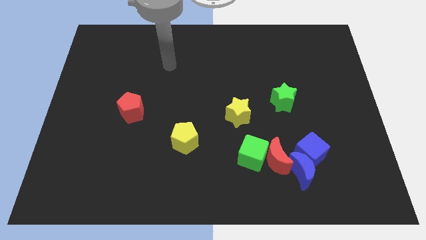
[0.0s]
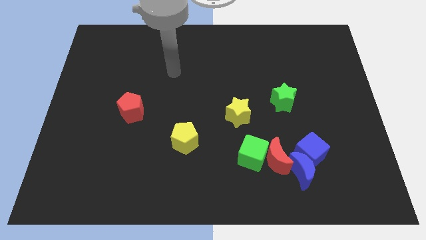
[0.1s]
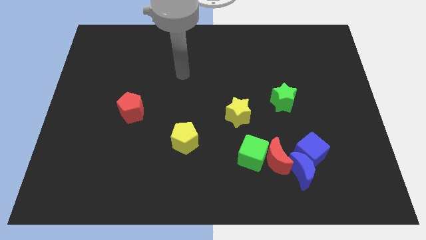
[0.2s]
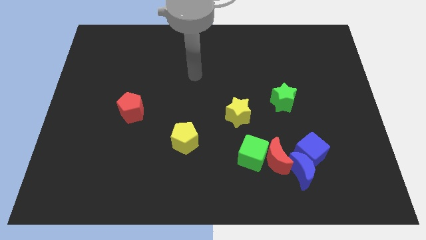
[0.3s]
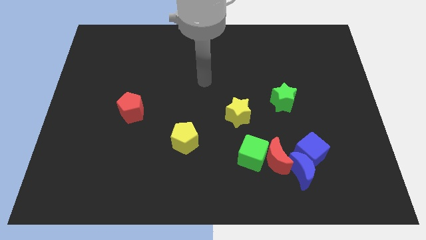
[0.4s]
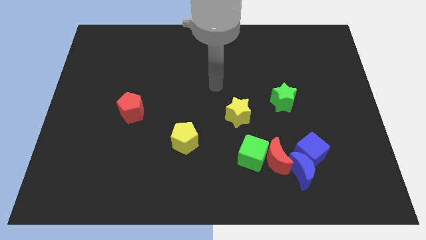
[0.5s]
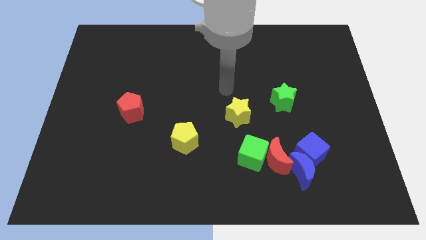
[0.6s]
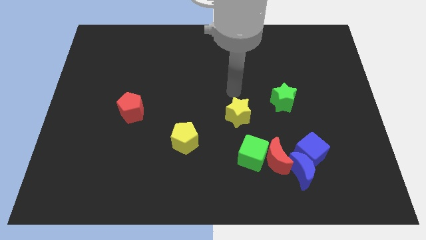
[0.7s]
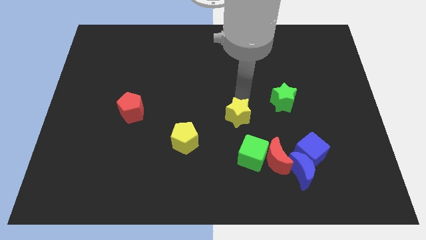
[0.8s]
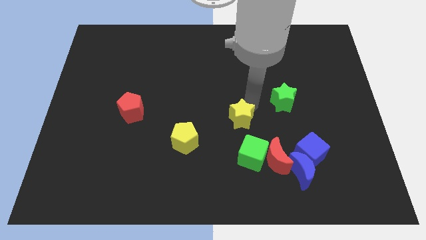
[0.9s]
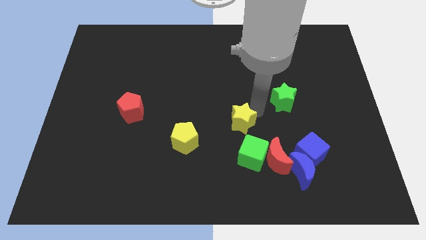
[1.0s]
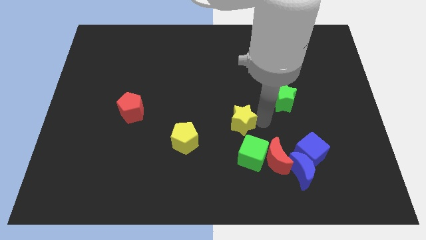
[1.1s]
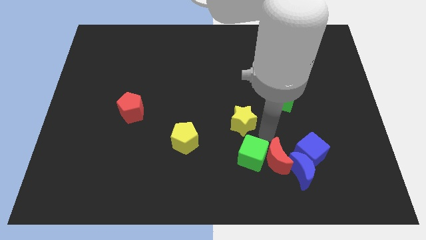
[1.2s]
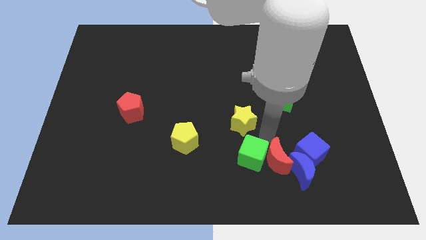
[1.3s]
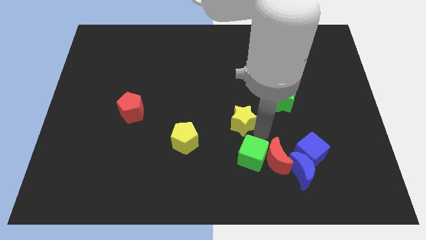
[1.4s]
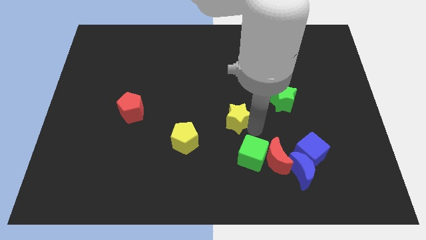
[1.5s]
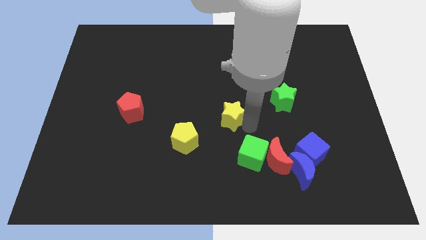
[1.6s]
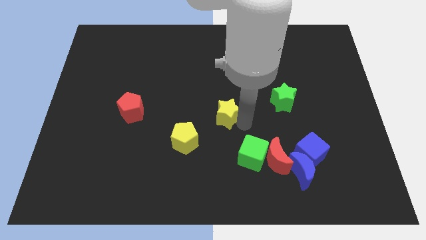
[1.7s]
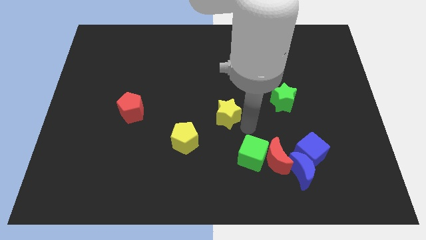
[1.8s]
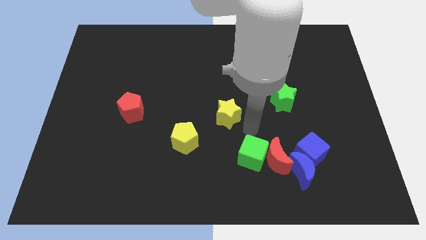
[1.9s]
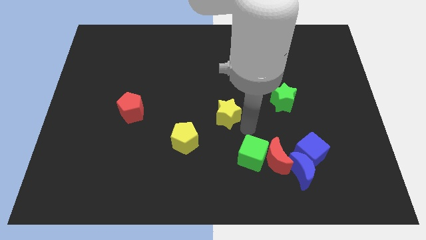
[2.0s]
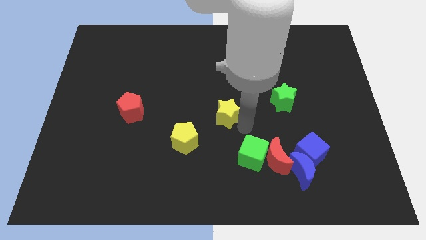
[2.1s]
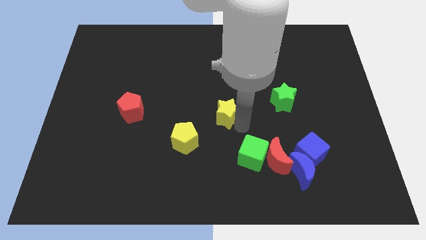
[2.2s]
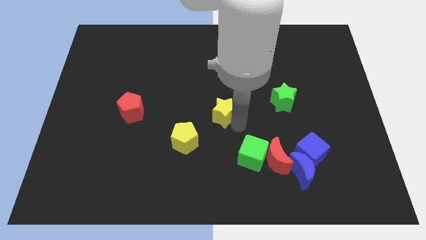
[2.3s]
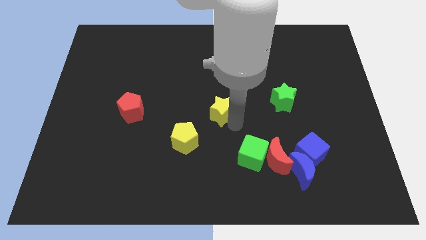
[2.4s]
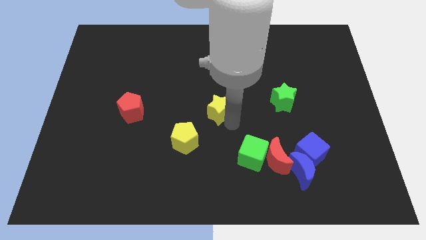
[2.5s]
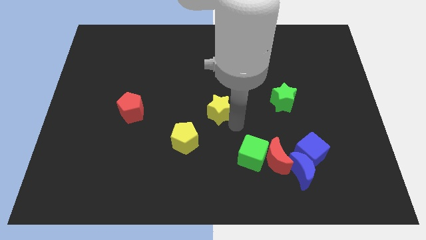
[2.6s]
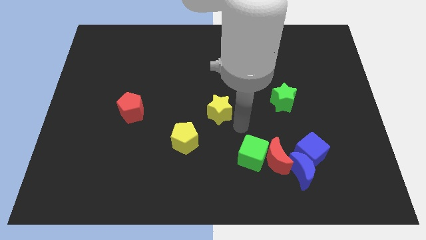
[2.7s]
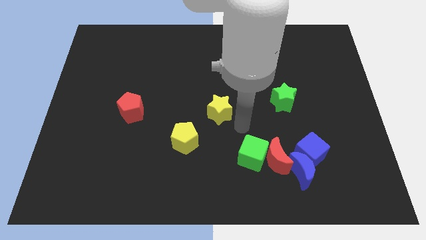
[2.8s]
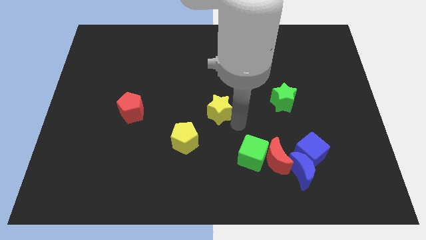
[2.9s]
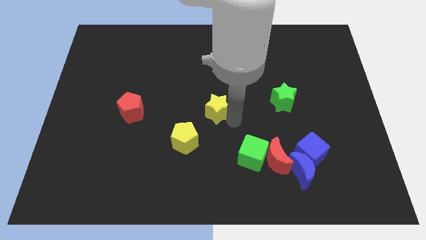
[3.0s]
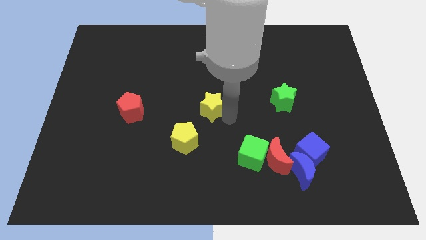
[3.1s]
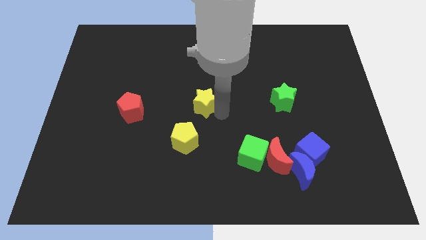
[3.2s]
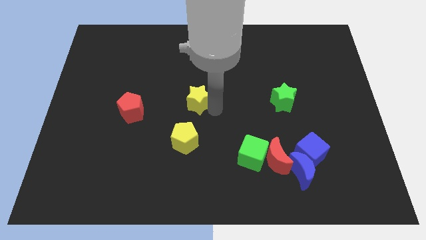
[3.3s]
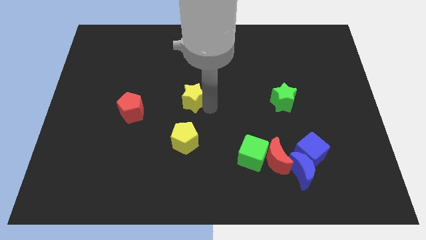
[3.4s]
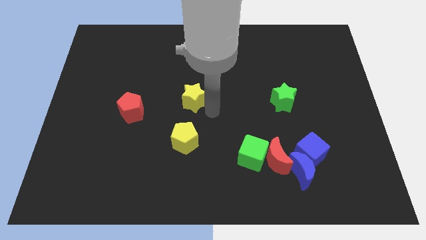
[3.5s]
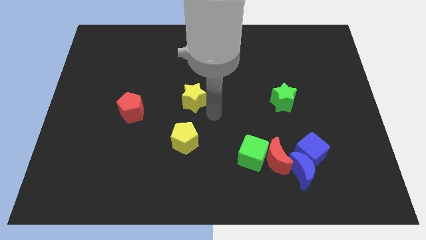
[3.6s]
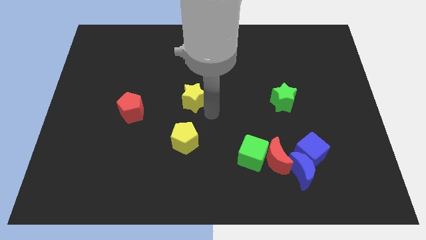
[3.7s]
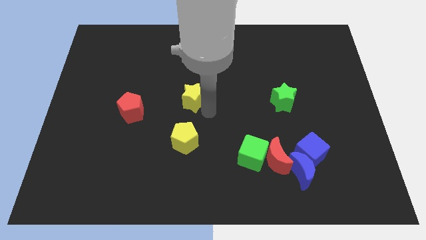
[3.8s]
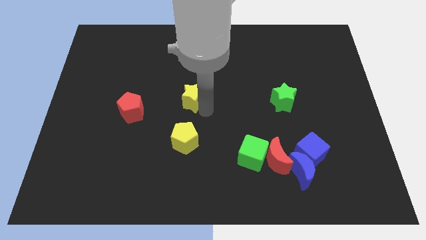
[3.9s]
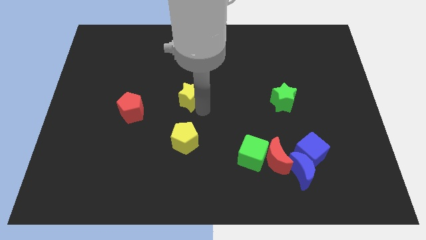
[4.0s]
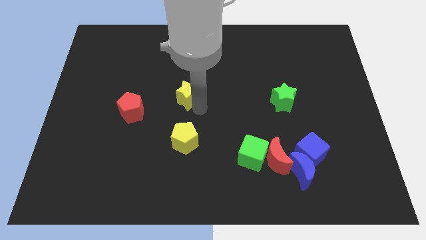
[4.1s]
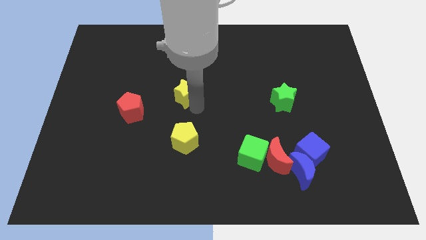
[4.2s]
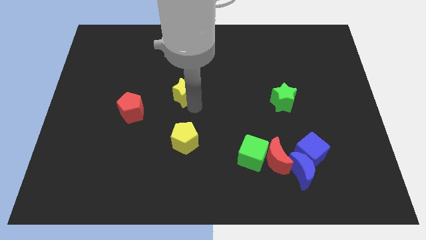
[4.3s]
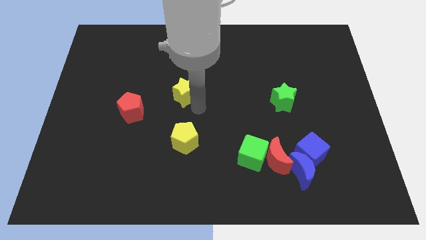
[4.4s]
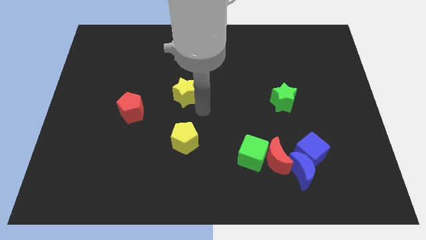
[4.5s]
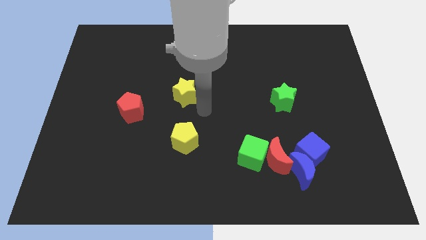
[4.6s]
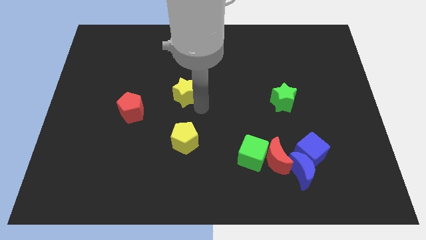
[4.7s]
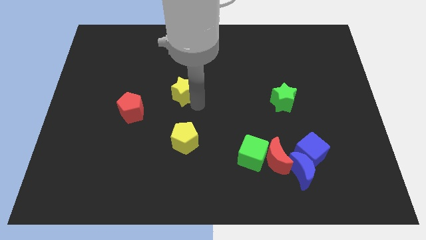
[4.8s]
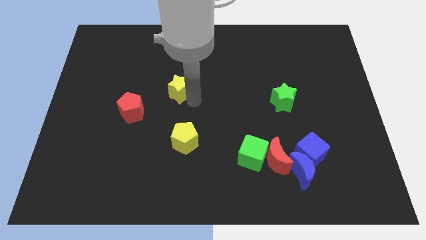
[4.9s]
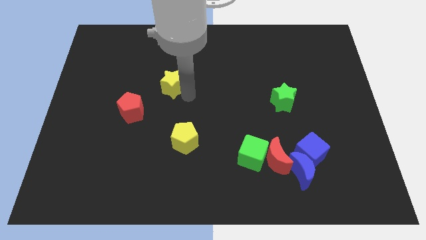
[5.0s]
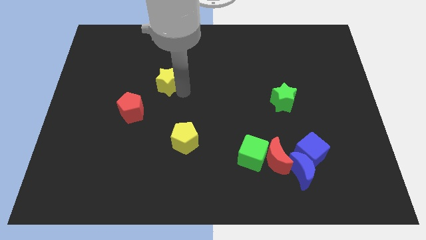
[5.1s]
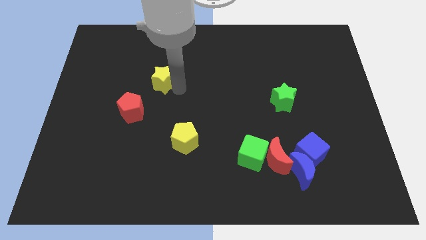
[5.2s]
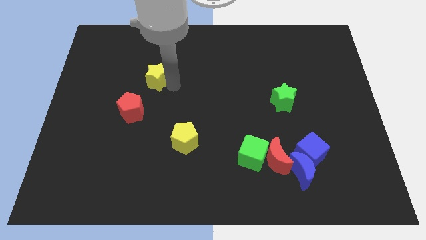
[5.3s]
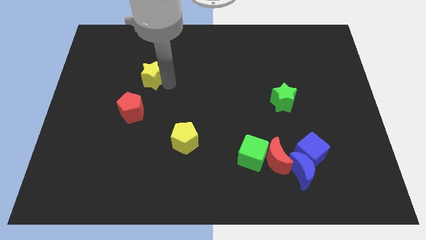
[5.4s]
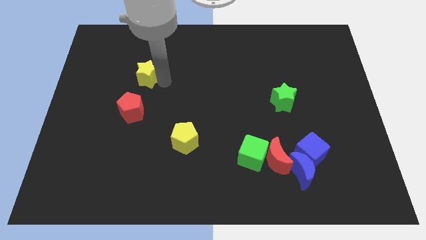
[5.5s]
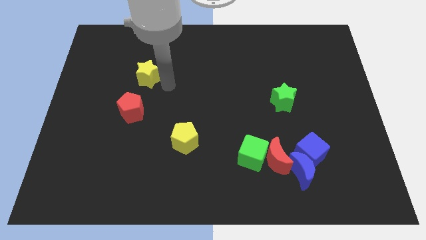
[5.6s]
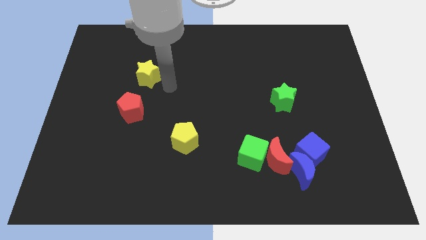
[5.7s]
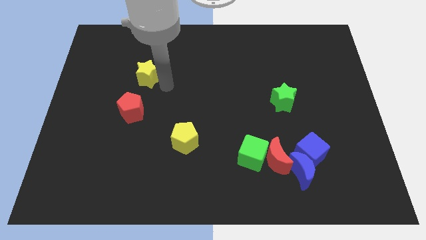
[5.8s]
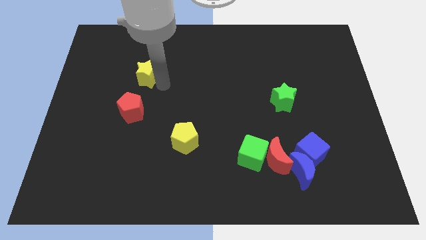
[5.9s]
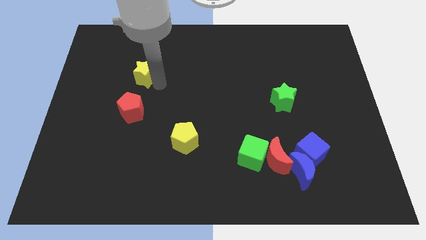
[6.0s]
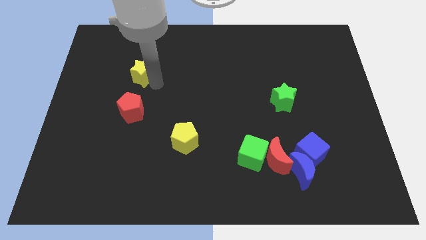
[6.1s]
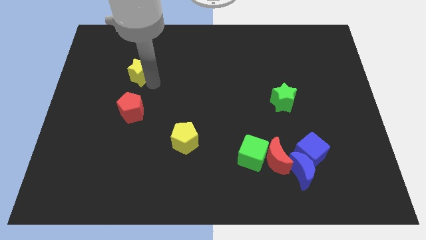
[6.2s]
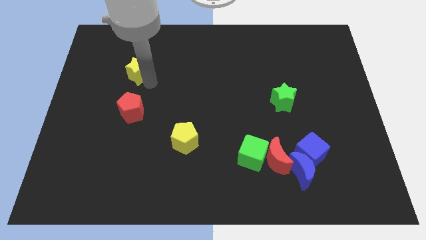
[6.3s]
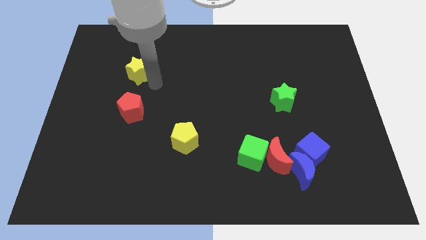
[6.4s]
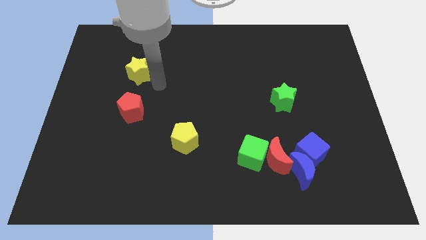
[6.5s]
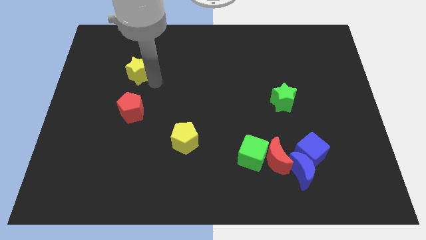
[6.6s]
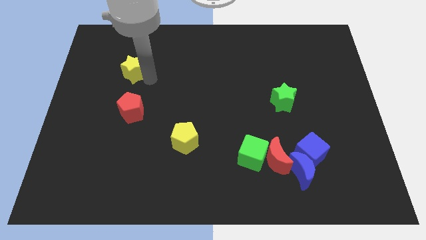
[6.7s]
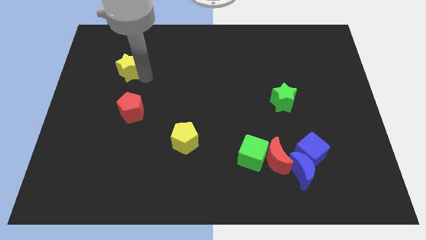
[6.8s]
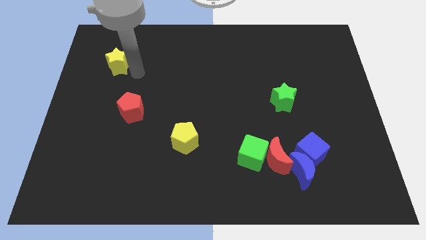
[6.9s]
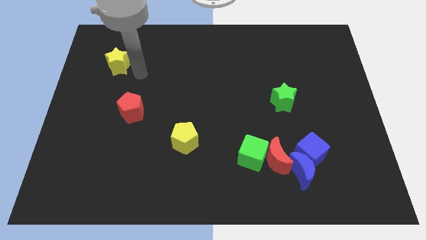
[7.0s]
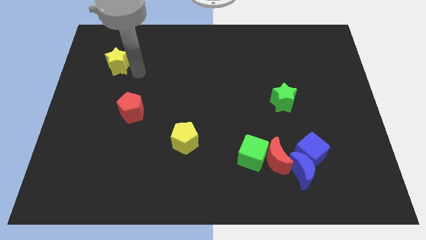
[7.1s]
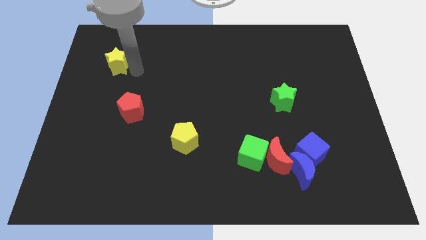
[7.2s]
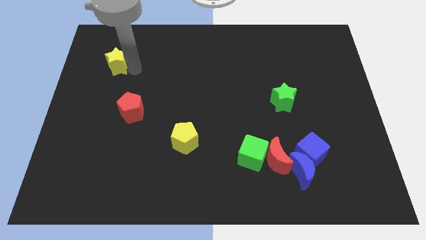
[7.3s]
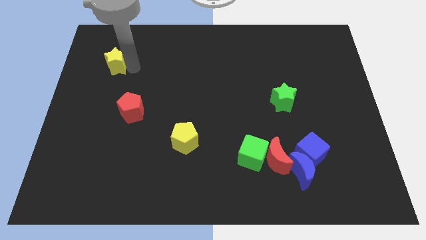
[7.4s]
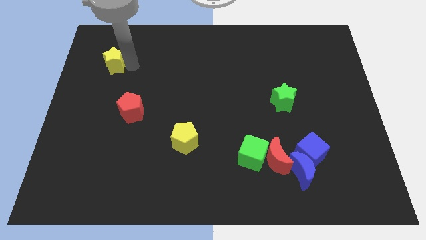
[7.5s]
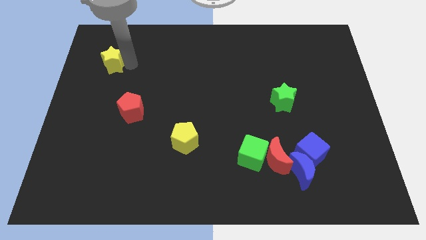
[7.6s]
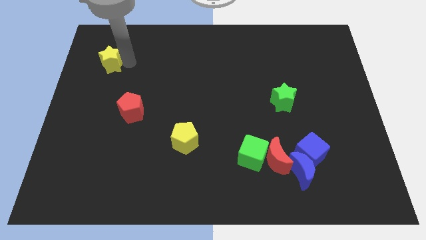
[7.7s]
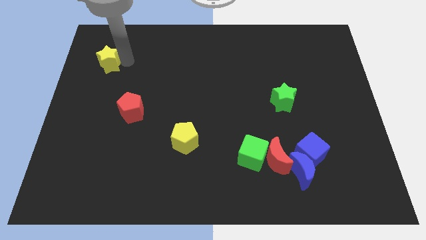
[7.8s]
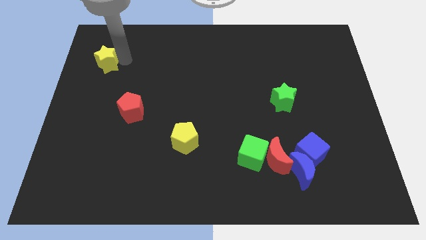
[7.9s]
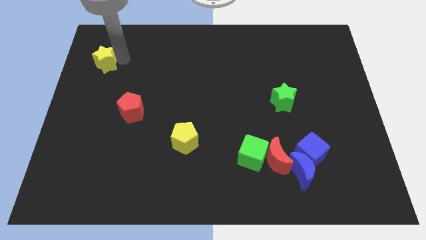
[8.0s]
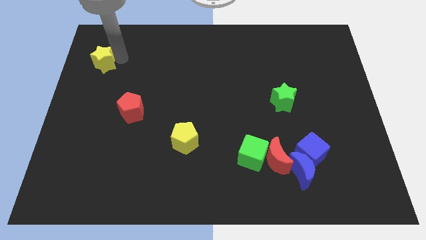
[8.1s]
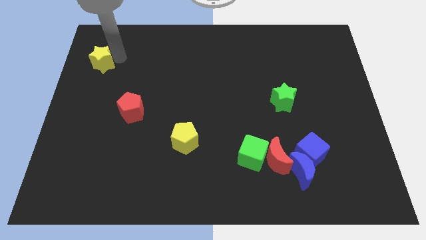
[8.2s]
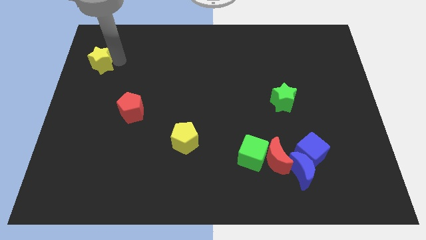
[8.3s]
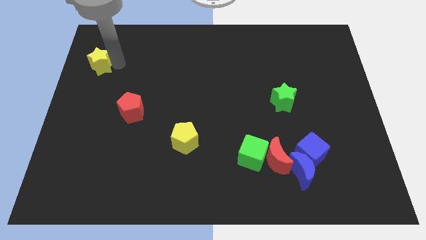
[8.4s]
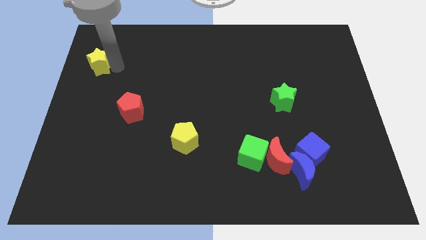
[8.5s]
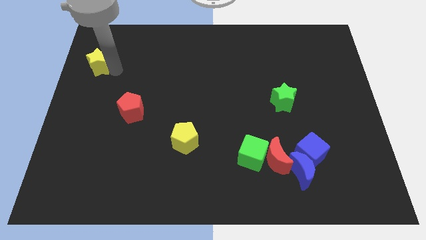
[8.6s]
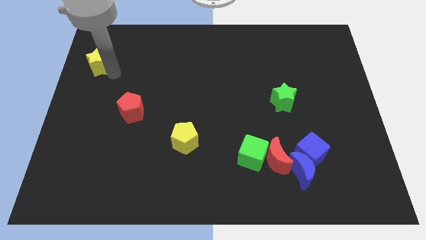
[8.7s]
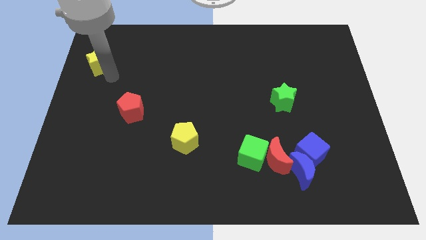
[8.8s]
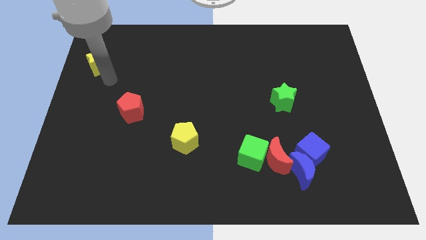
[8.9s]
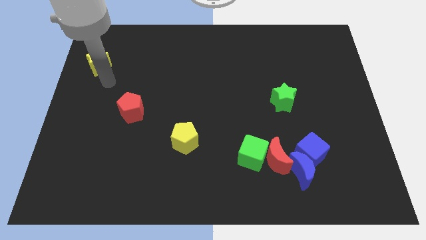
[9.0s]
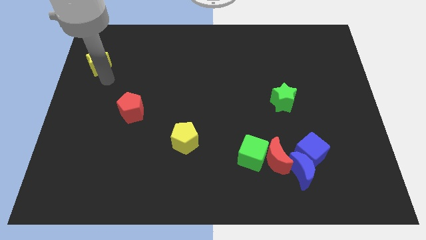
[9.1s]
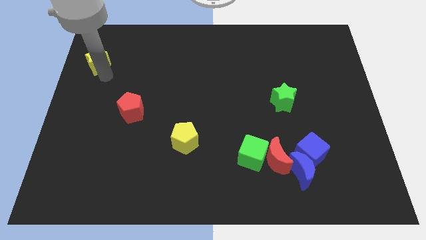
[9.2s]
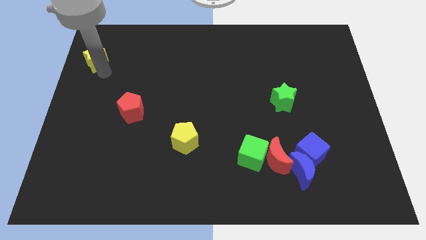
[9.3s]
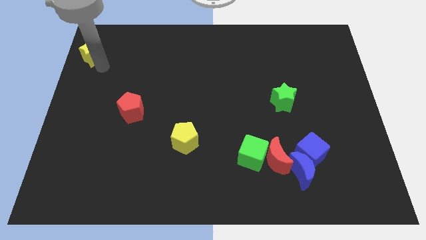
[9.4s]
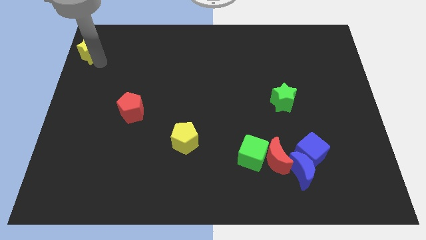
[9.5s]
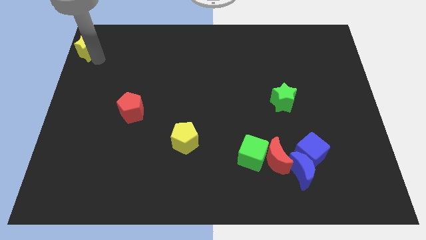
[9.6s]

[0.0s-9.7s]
slide the yellow star to the top left of the board
